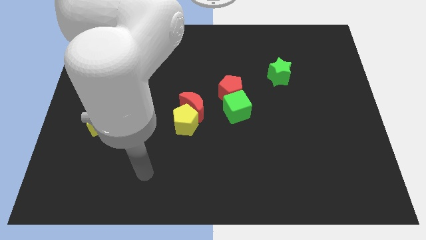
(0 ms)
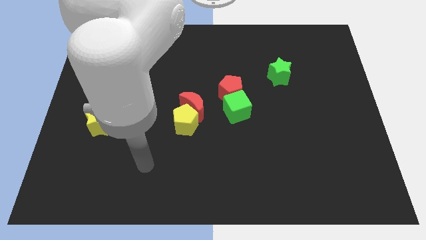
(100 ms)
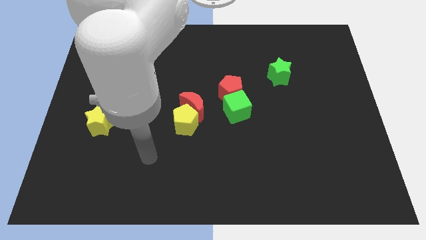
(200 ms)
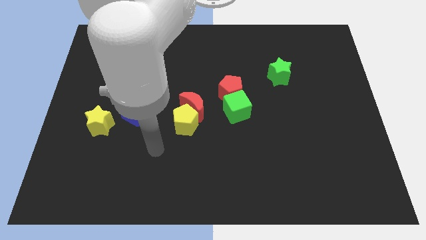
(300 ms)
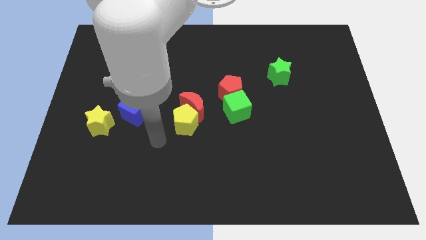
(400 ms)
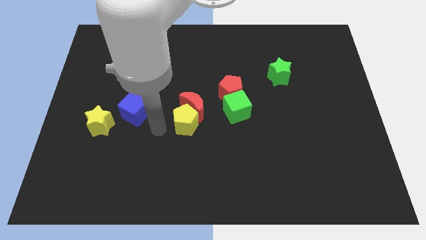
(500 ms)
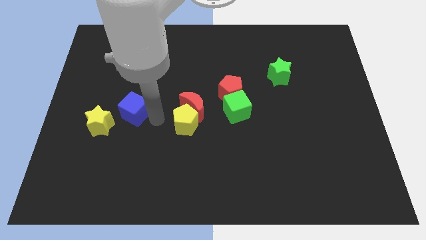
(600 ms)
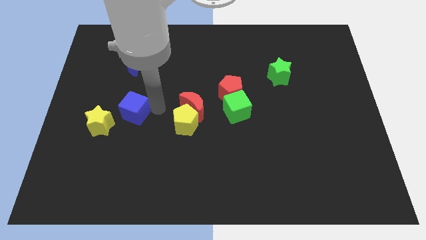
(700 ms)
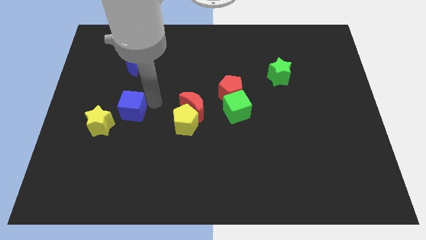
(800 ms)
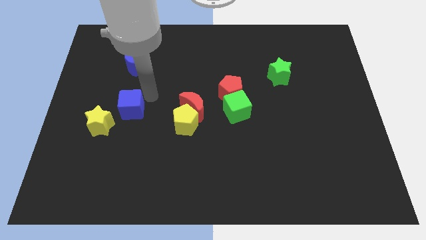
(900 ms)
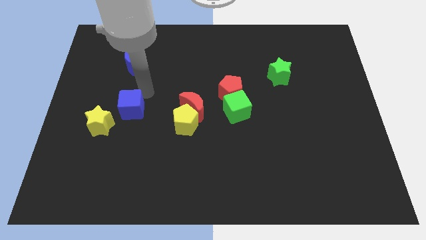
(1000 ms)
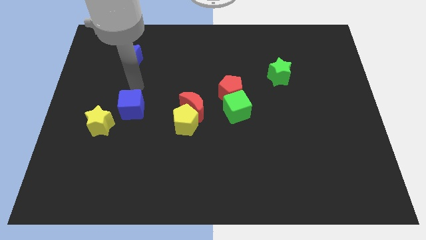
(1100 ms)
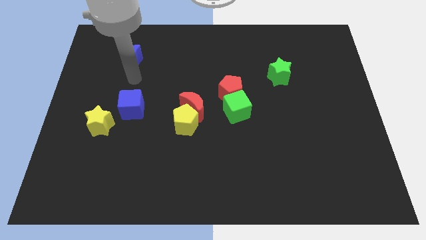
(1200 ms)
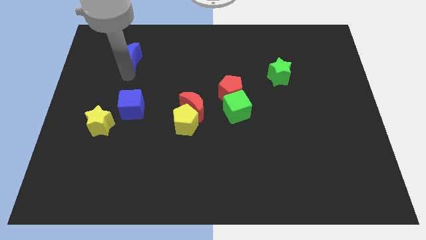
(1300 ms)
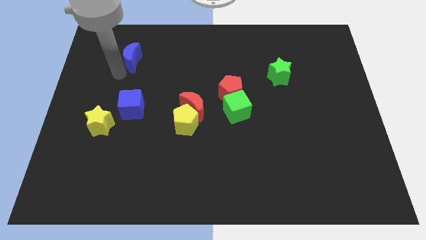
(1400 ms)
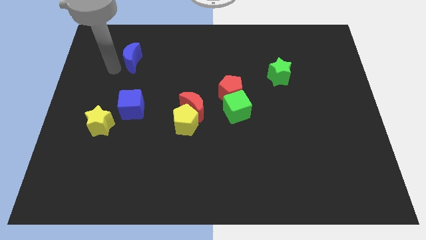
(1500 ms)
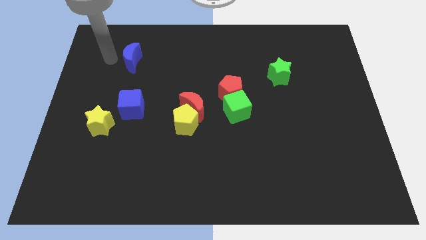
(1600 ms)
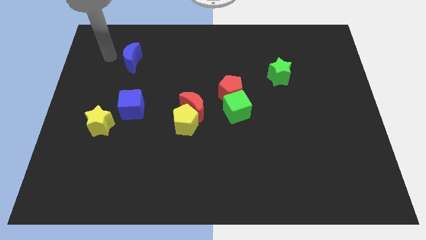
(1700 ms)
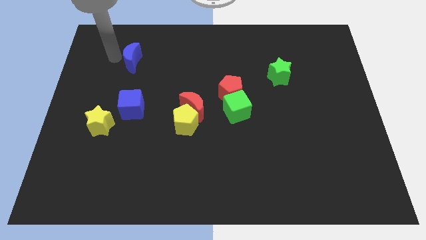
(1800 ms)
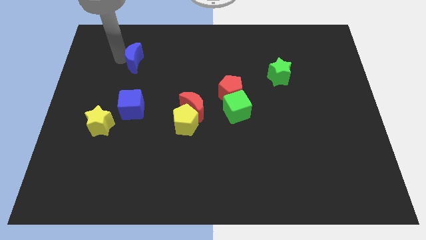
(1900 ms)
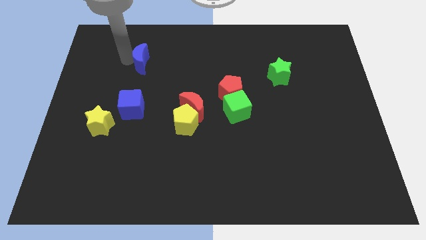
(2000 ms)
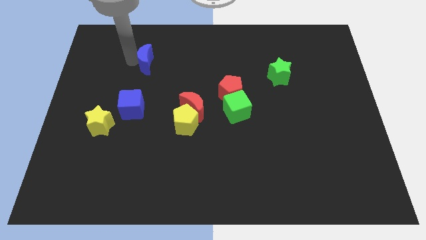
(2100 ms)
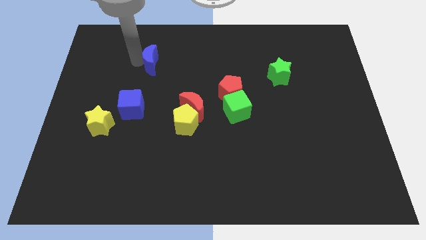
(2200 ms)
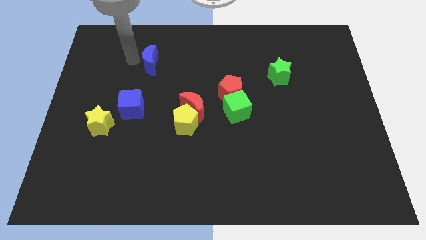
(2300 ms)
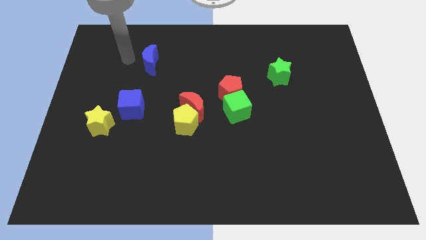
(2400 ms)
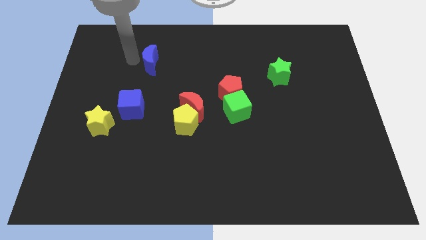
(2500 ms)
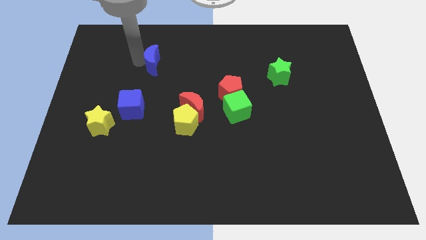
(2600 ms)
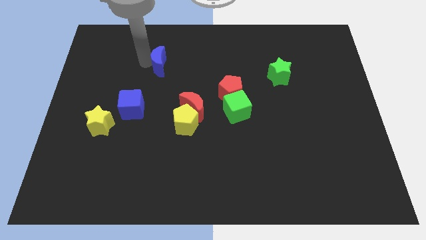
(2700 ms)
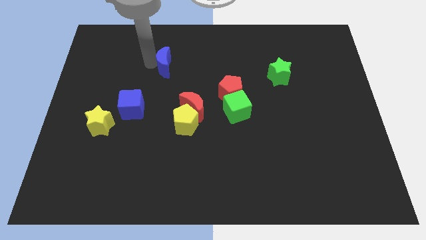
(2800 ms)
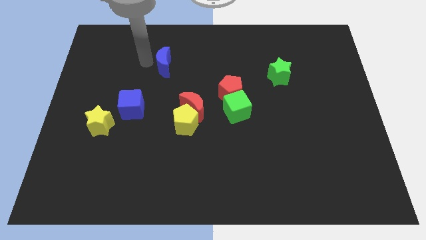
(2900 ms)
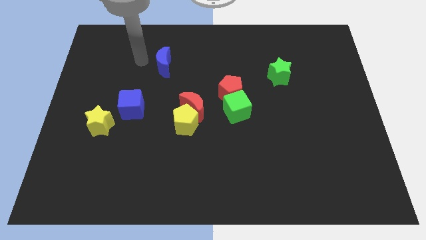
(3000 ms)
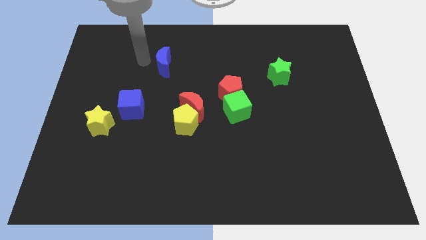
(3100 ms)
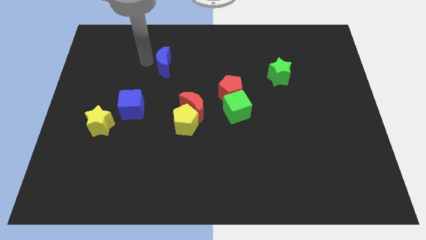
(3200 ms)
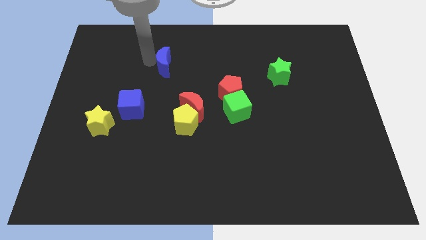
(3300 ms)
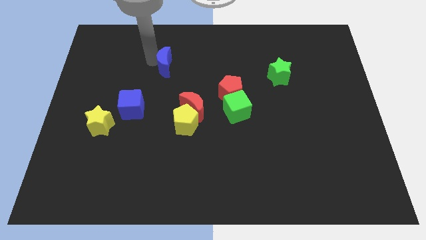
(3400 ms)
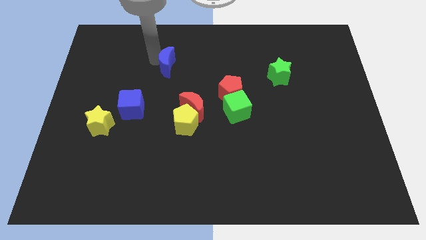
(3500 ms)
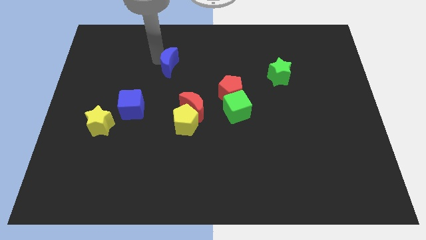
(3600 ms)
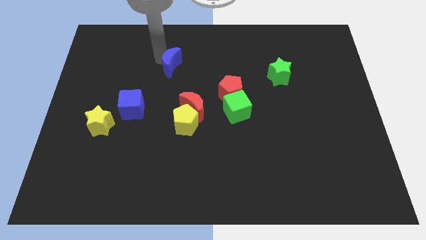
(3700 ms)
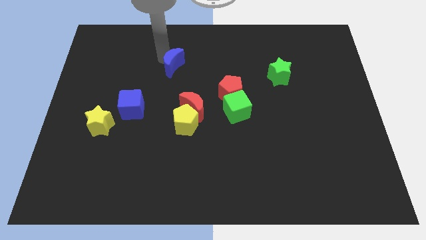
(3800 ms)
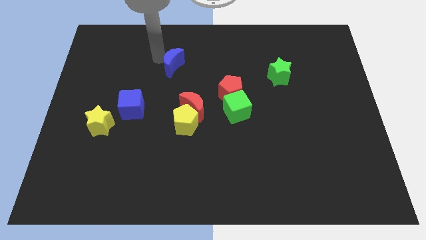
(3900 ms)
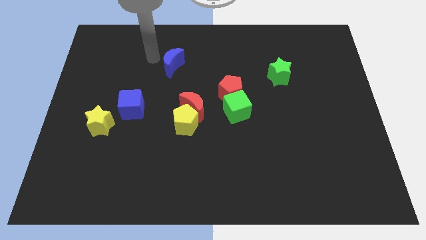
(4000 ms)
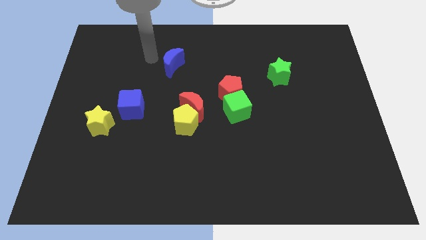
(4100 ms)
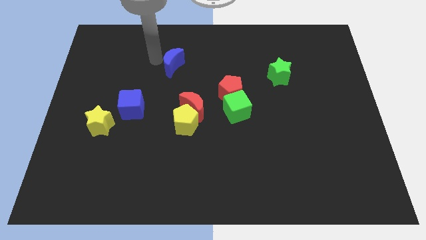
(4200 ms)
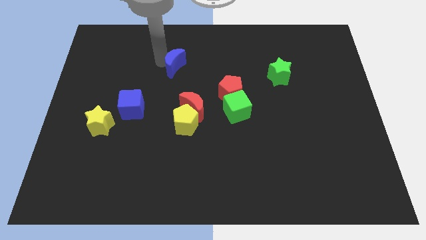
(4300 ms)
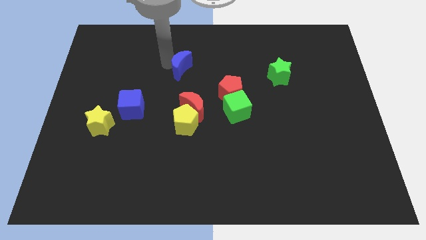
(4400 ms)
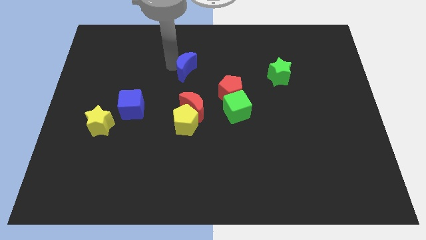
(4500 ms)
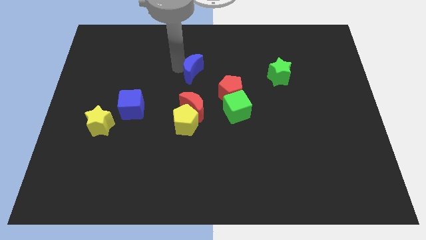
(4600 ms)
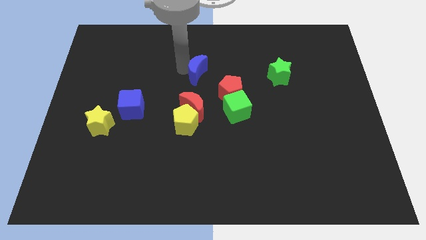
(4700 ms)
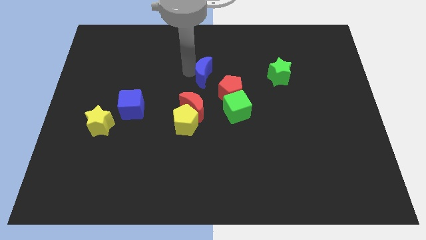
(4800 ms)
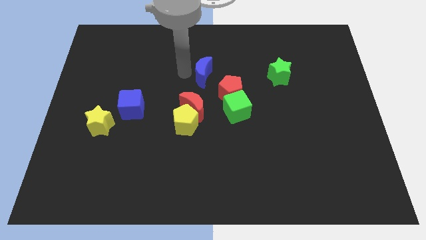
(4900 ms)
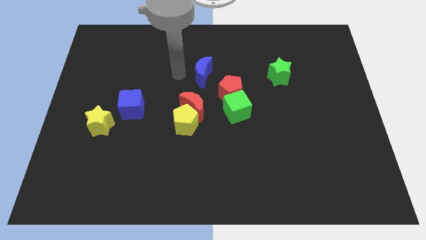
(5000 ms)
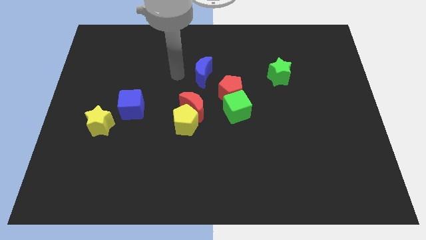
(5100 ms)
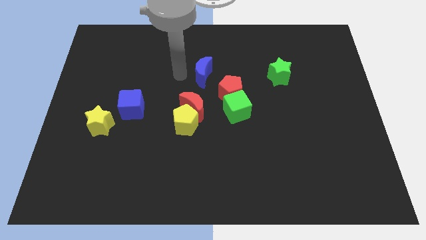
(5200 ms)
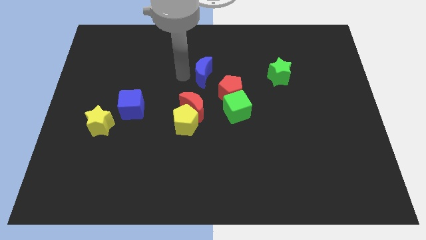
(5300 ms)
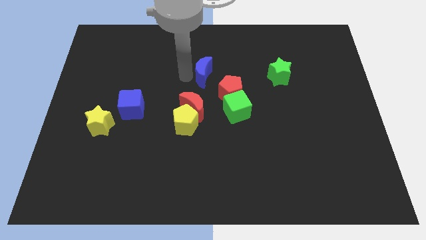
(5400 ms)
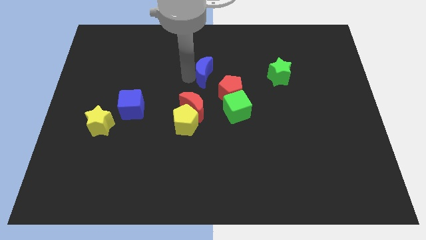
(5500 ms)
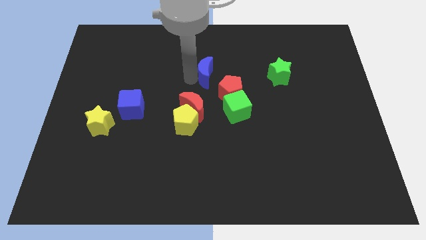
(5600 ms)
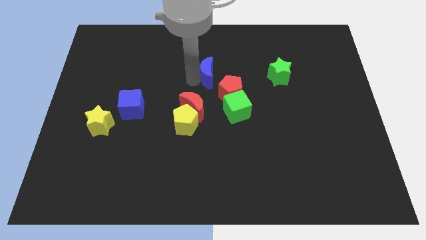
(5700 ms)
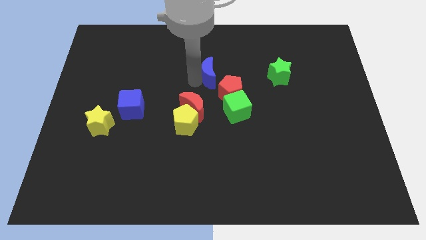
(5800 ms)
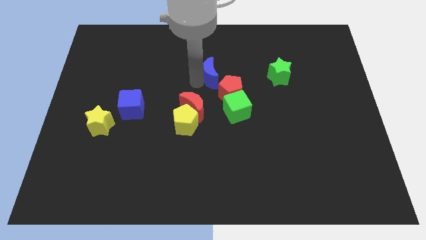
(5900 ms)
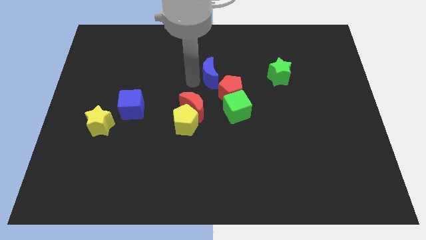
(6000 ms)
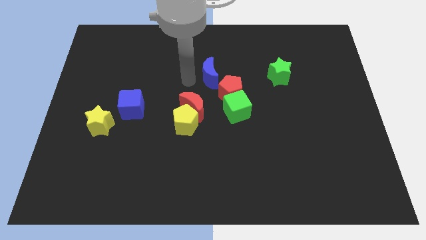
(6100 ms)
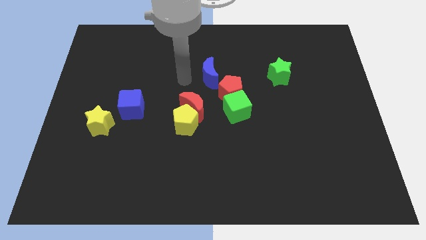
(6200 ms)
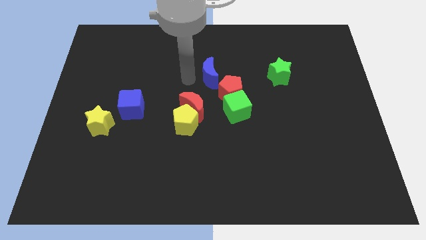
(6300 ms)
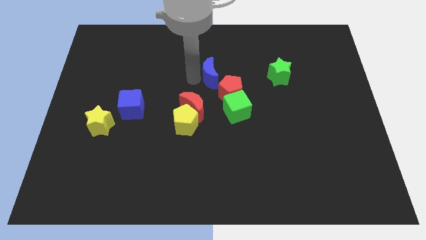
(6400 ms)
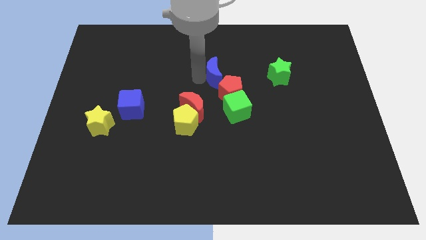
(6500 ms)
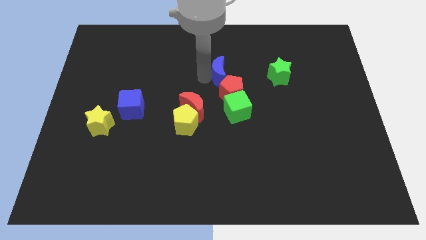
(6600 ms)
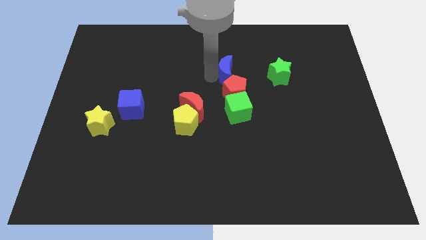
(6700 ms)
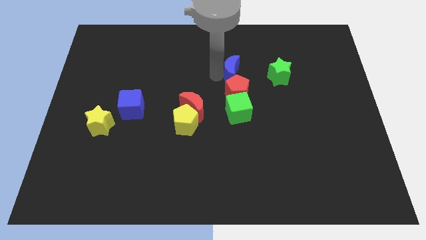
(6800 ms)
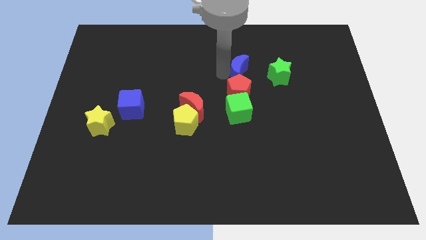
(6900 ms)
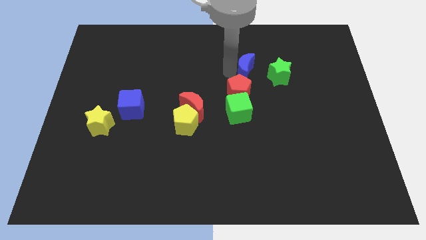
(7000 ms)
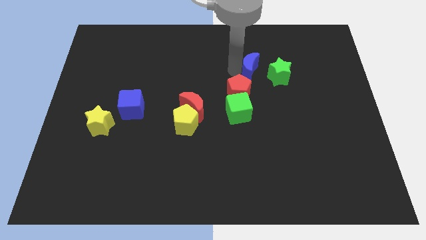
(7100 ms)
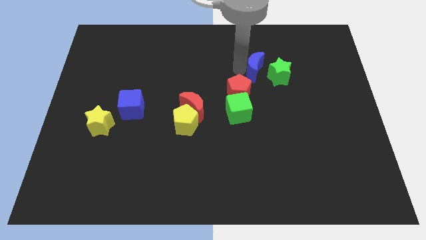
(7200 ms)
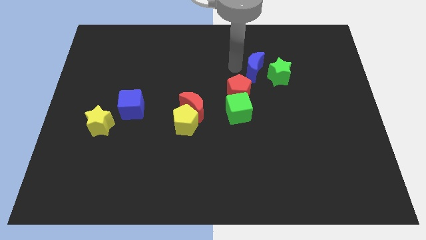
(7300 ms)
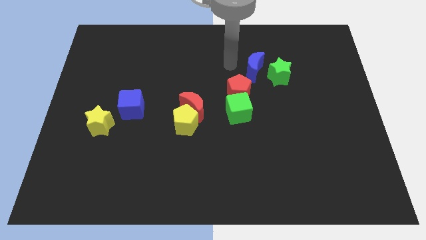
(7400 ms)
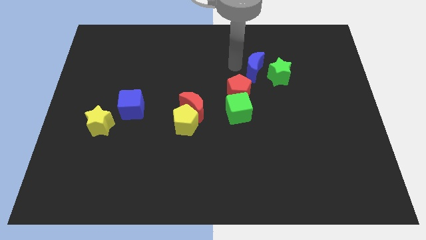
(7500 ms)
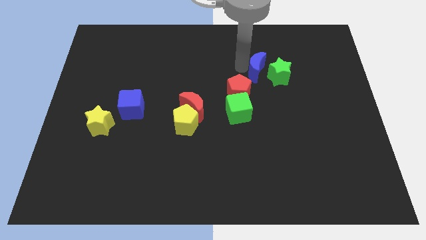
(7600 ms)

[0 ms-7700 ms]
put the blue moon to the green star
